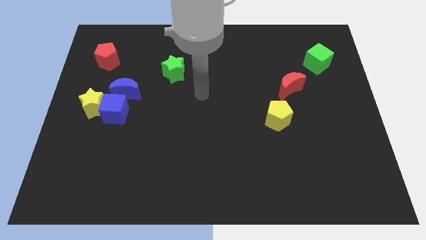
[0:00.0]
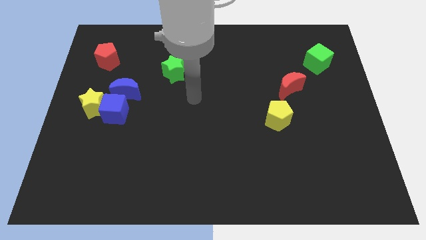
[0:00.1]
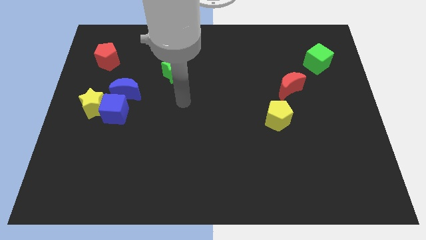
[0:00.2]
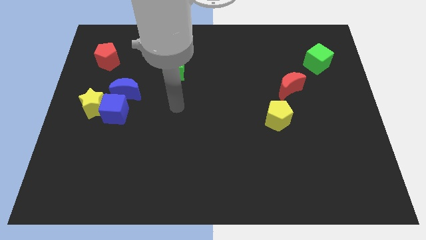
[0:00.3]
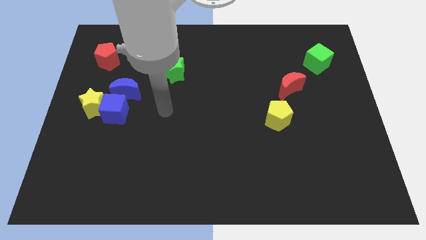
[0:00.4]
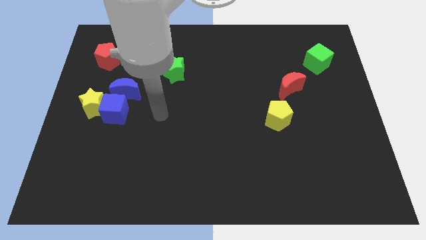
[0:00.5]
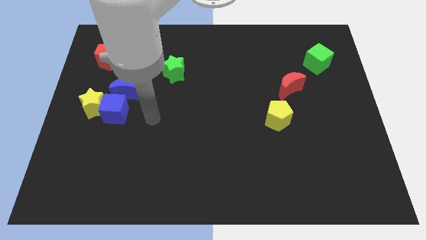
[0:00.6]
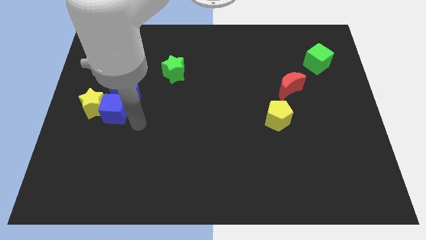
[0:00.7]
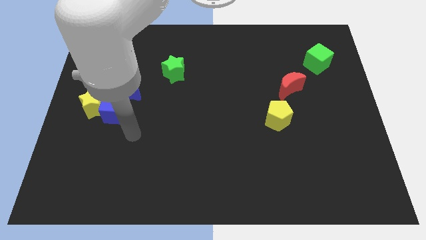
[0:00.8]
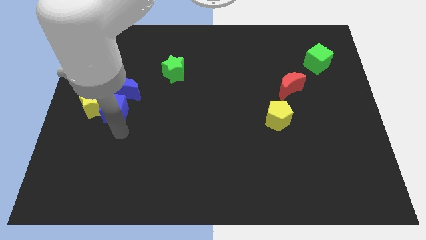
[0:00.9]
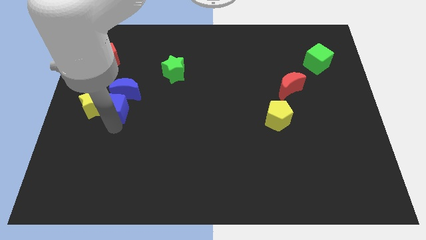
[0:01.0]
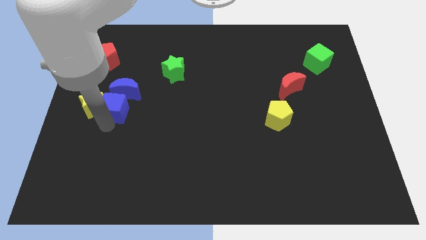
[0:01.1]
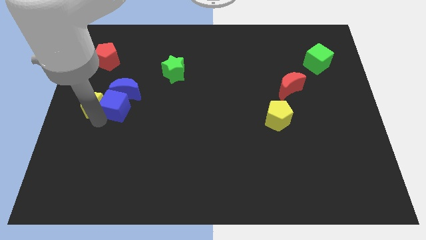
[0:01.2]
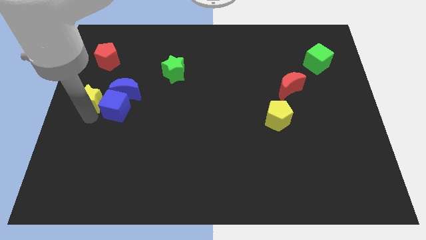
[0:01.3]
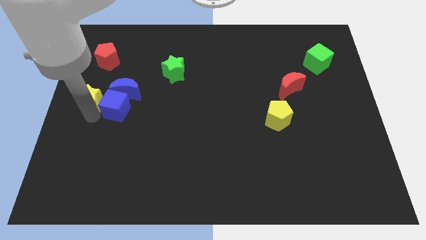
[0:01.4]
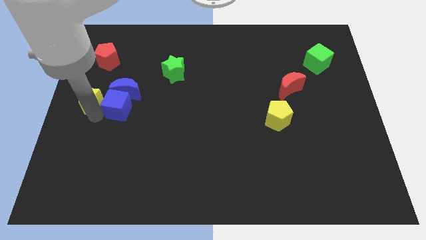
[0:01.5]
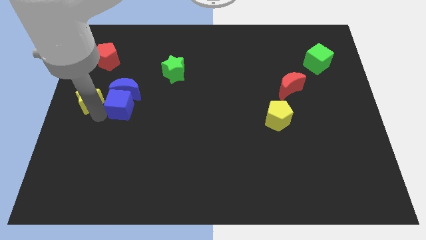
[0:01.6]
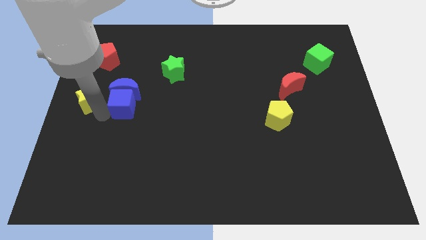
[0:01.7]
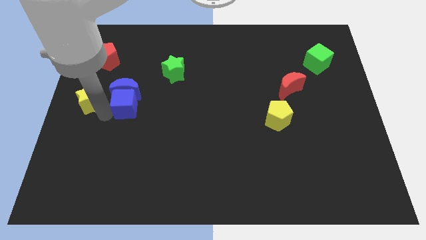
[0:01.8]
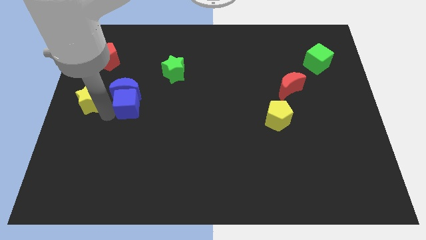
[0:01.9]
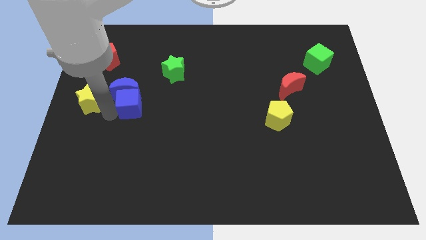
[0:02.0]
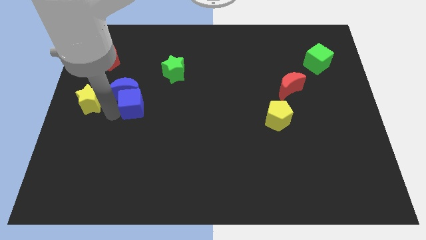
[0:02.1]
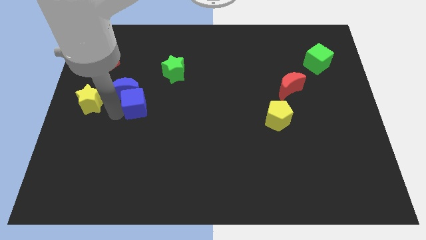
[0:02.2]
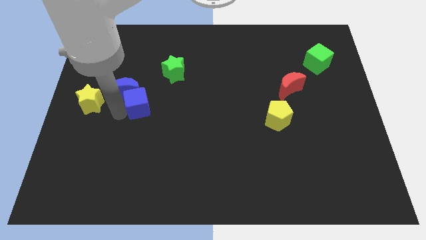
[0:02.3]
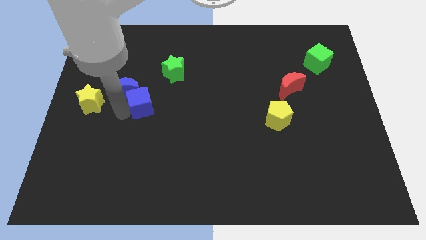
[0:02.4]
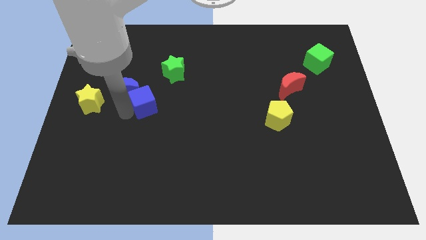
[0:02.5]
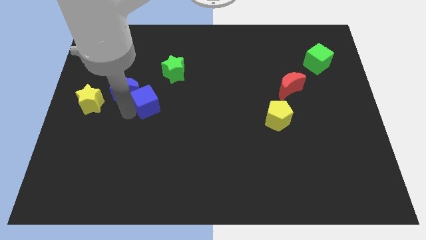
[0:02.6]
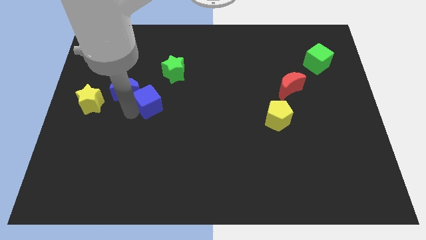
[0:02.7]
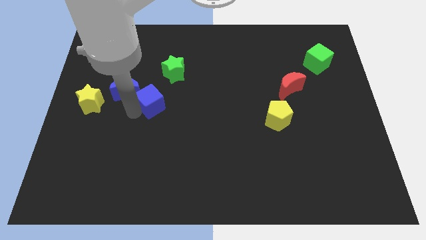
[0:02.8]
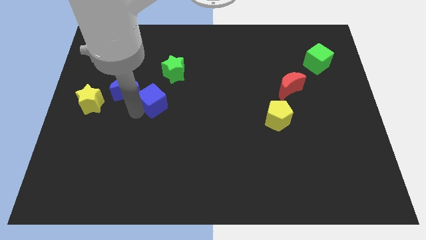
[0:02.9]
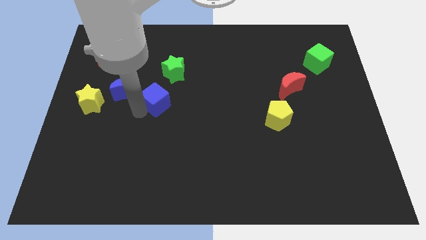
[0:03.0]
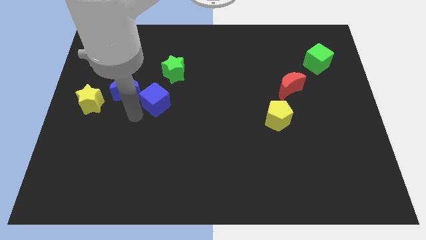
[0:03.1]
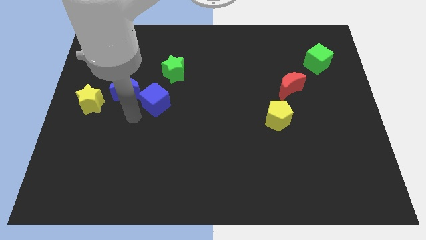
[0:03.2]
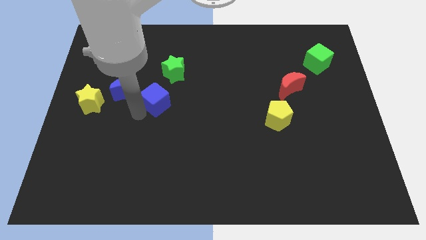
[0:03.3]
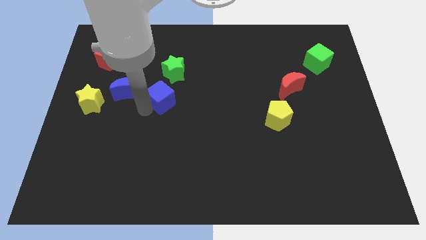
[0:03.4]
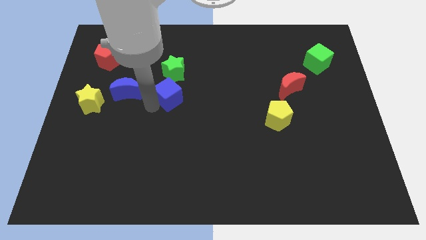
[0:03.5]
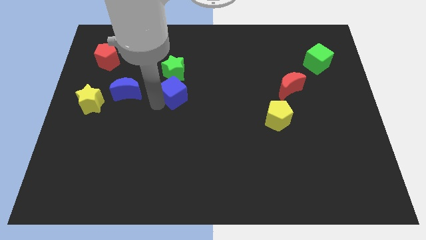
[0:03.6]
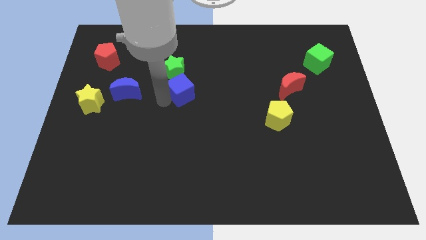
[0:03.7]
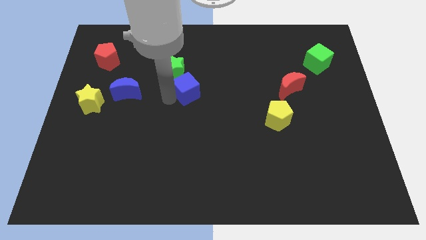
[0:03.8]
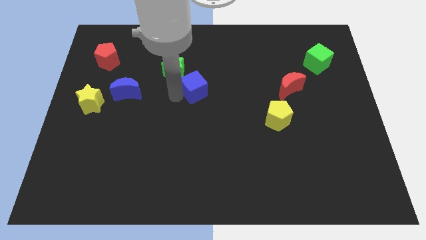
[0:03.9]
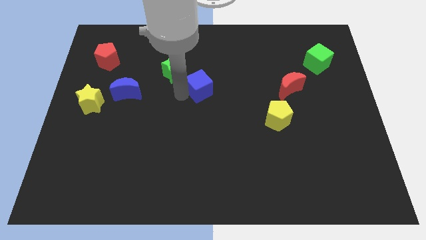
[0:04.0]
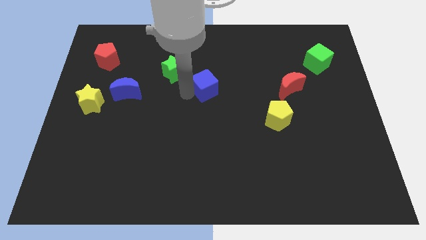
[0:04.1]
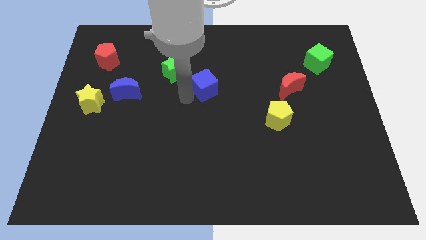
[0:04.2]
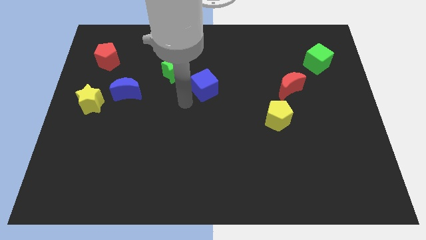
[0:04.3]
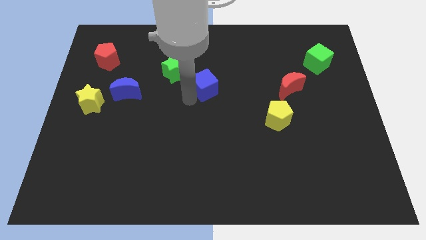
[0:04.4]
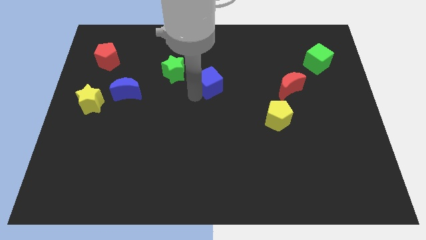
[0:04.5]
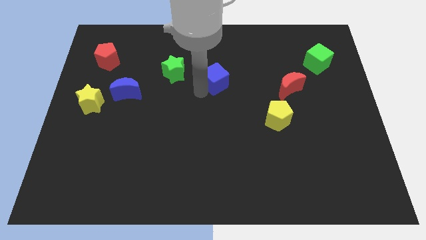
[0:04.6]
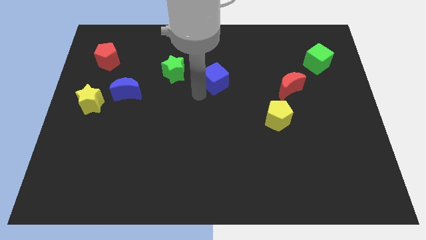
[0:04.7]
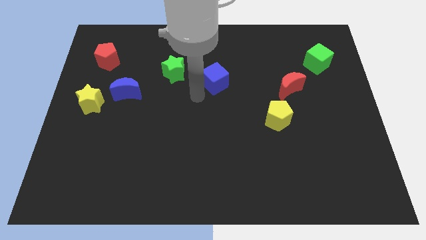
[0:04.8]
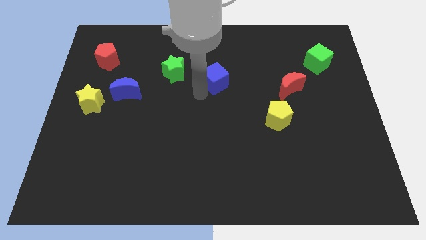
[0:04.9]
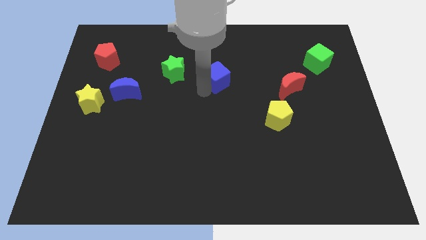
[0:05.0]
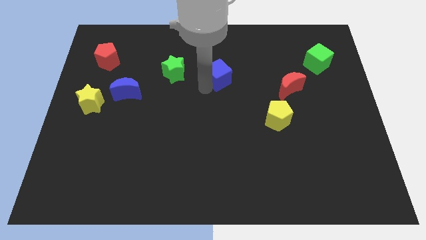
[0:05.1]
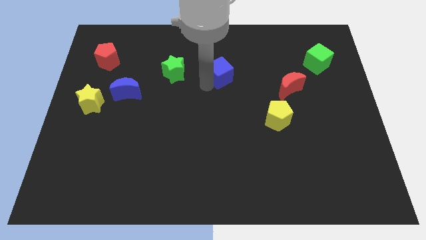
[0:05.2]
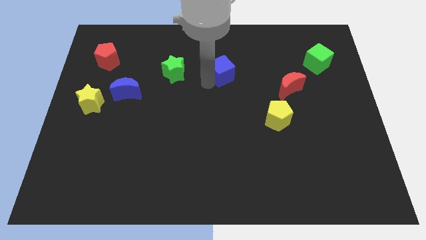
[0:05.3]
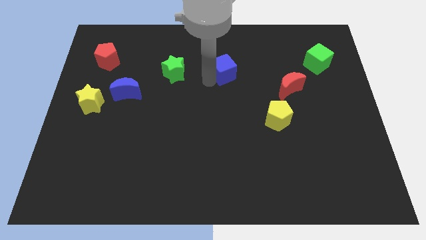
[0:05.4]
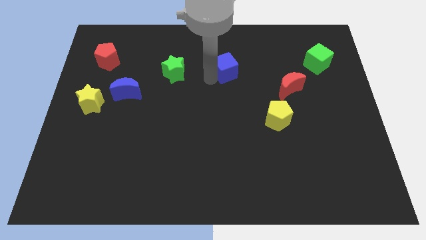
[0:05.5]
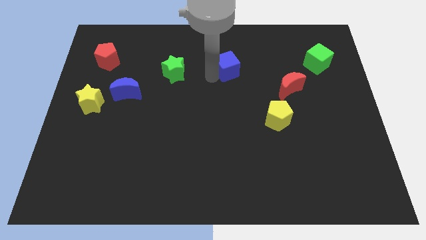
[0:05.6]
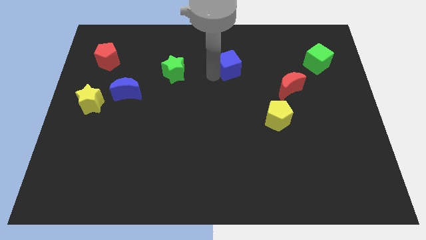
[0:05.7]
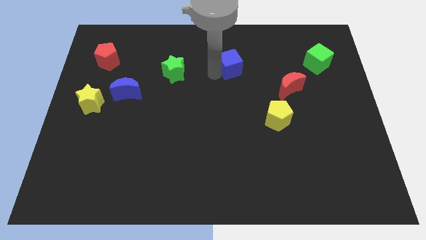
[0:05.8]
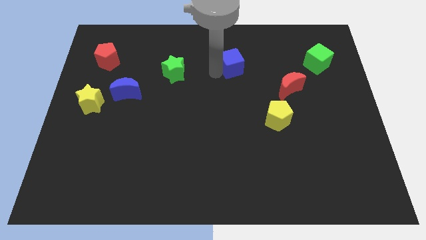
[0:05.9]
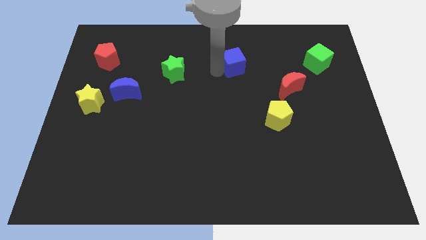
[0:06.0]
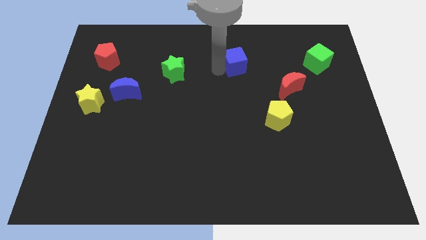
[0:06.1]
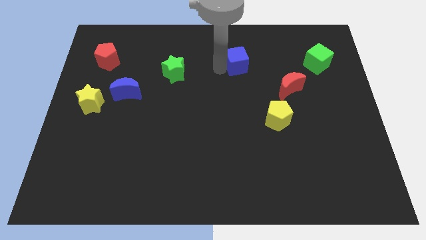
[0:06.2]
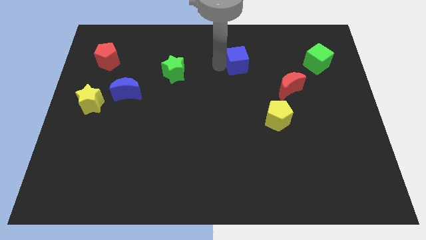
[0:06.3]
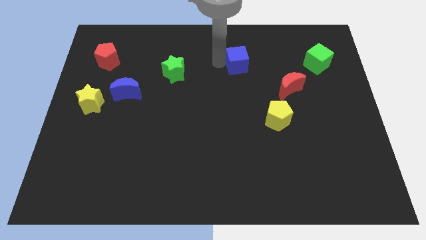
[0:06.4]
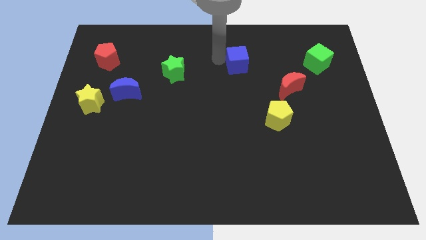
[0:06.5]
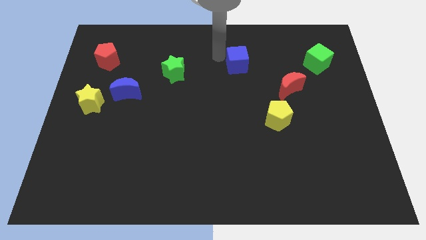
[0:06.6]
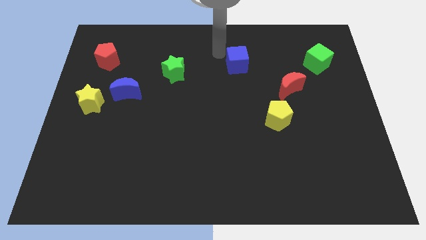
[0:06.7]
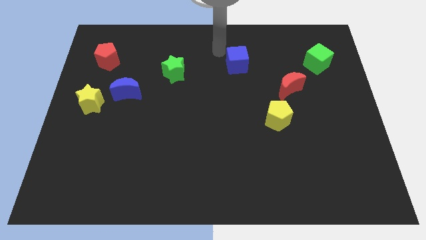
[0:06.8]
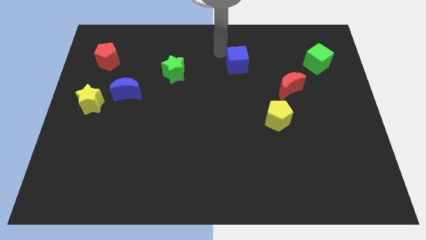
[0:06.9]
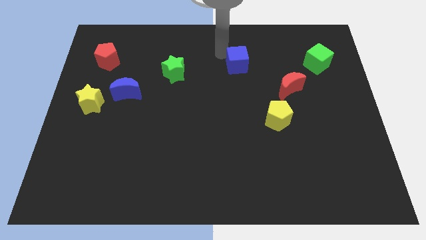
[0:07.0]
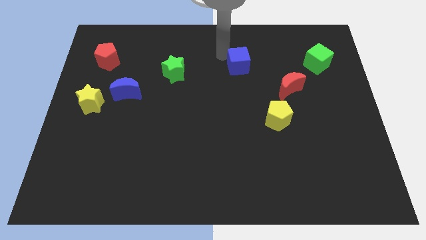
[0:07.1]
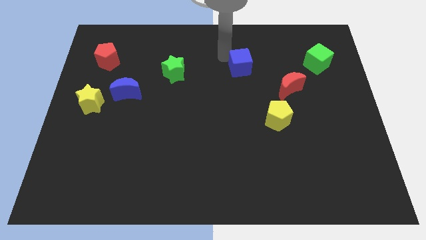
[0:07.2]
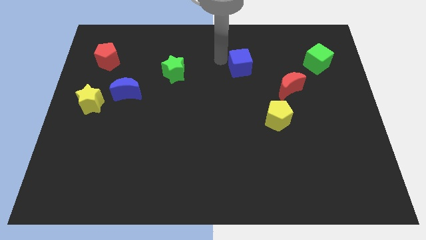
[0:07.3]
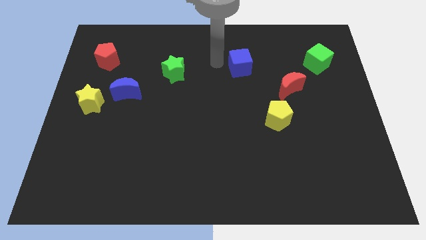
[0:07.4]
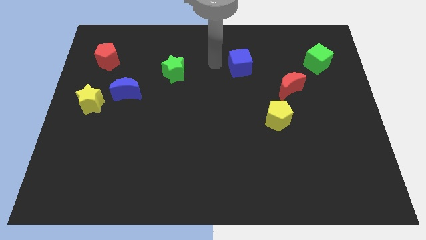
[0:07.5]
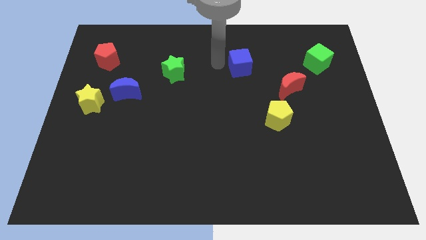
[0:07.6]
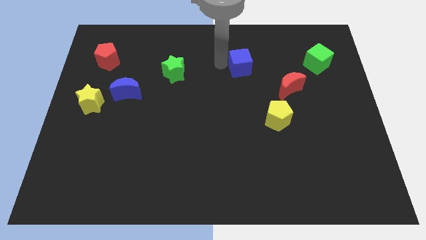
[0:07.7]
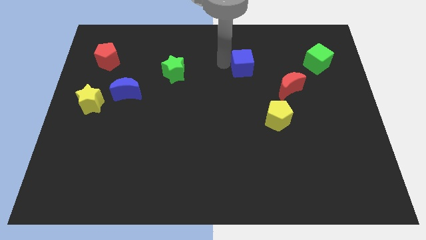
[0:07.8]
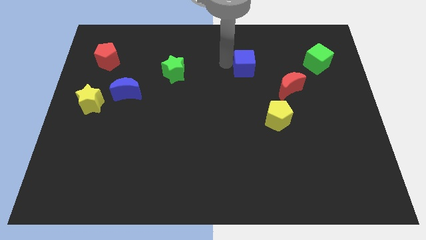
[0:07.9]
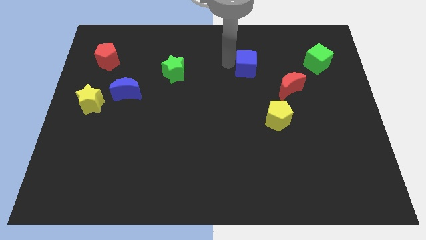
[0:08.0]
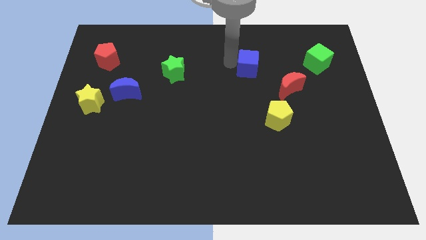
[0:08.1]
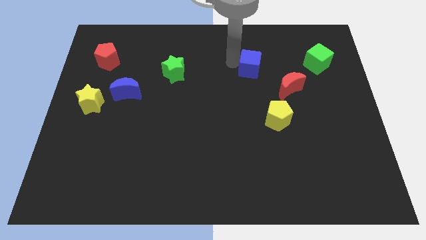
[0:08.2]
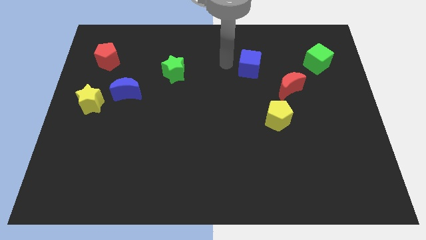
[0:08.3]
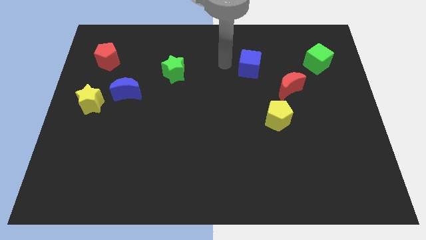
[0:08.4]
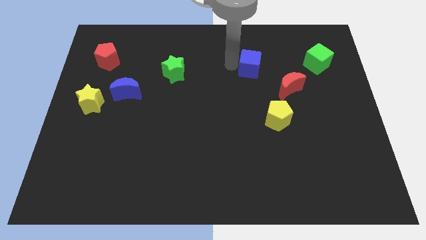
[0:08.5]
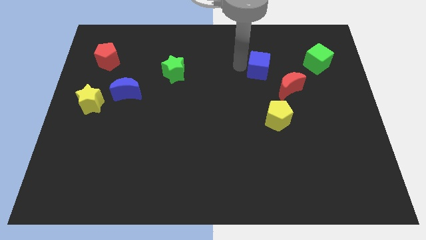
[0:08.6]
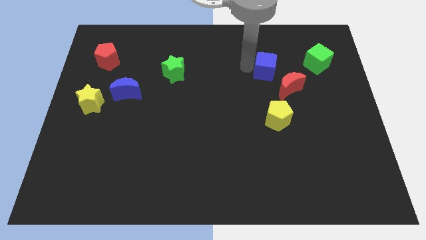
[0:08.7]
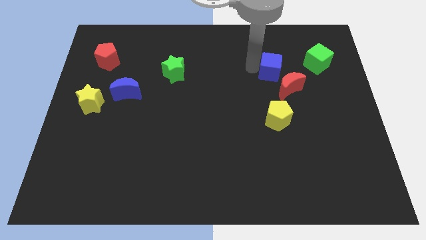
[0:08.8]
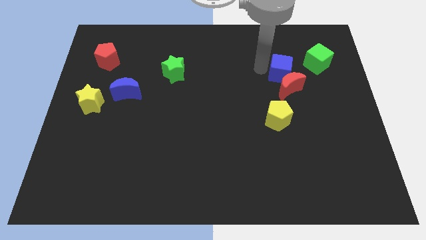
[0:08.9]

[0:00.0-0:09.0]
slide the blue cube to the bottom left side of the green cube
